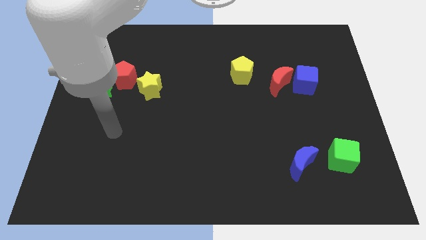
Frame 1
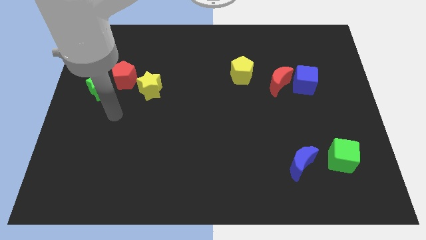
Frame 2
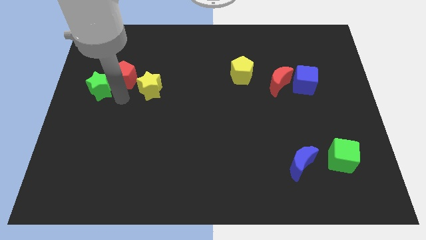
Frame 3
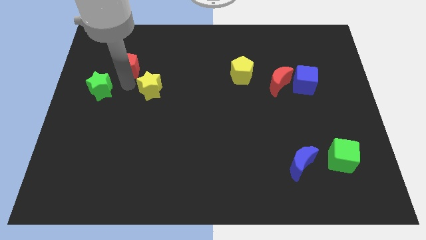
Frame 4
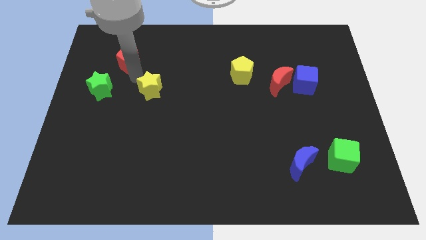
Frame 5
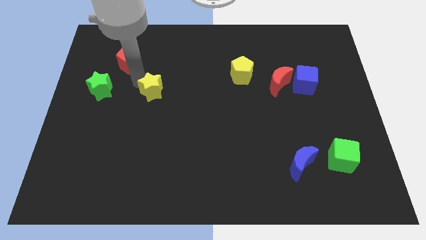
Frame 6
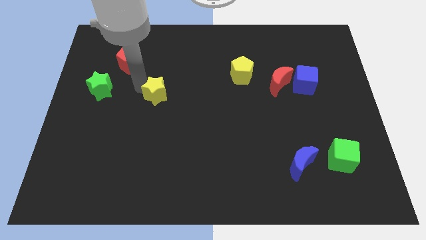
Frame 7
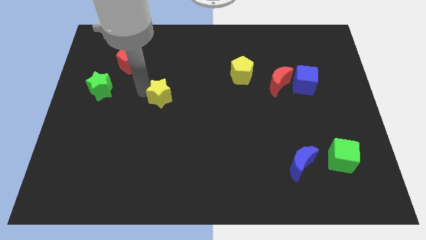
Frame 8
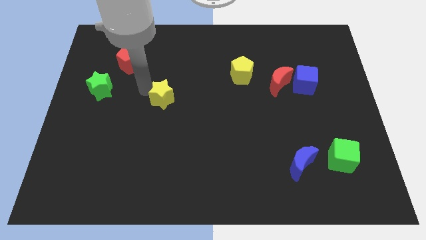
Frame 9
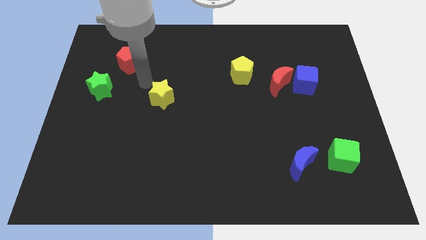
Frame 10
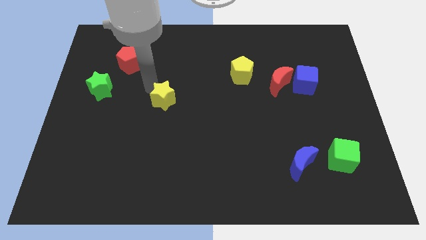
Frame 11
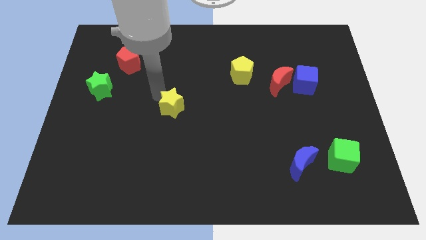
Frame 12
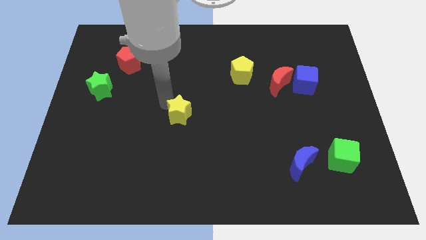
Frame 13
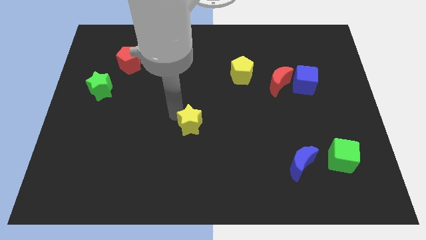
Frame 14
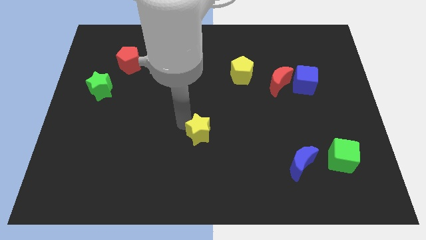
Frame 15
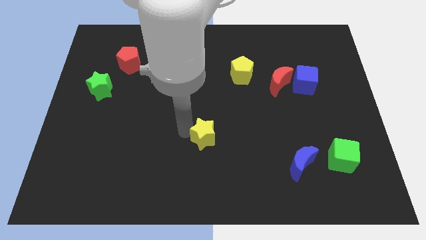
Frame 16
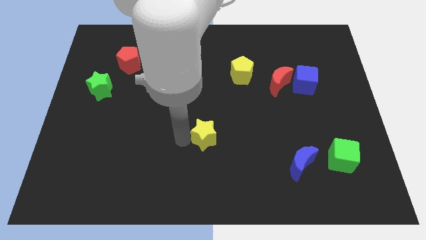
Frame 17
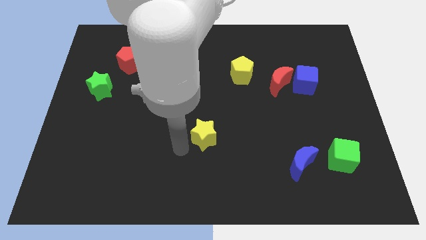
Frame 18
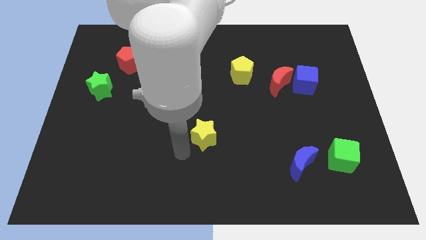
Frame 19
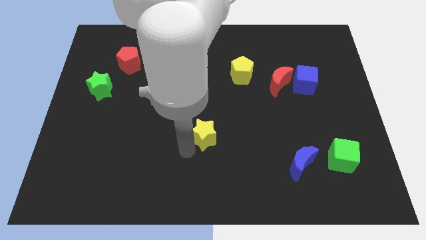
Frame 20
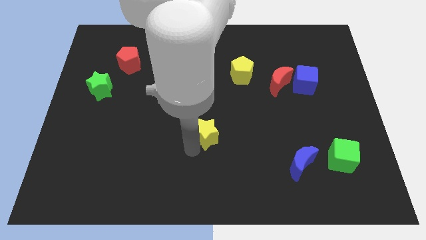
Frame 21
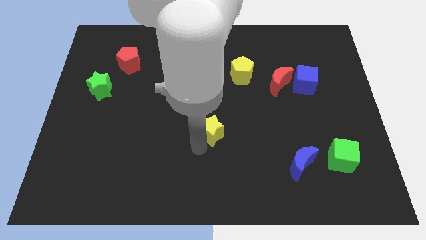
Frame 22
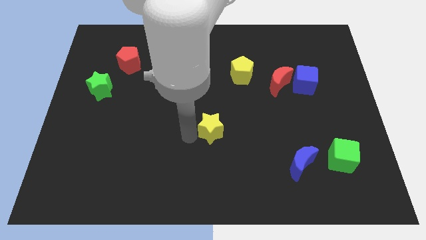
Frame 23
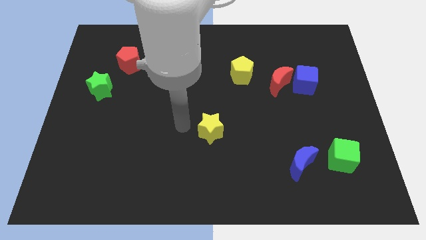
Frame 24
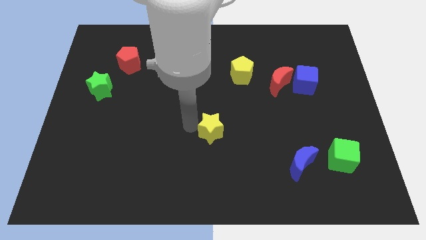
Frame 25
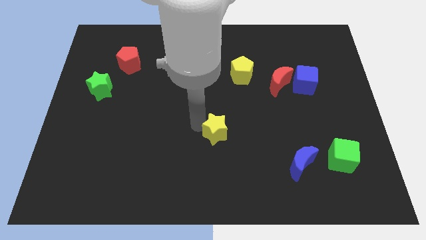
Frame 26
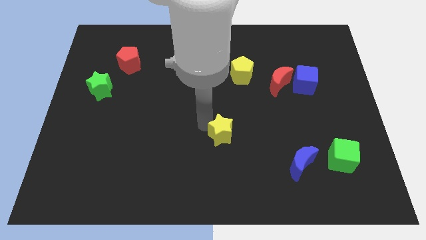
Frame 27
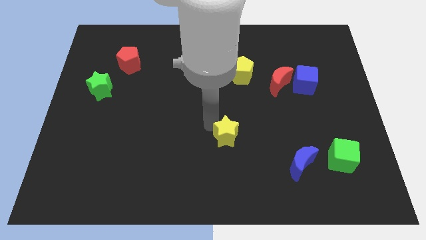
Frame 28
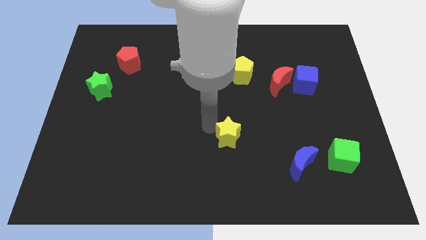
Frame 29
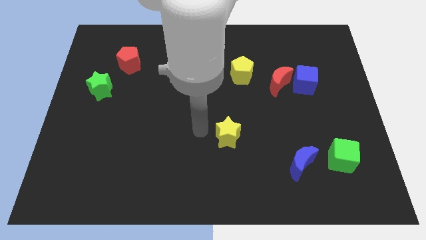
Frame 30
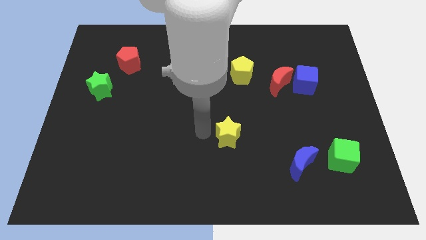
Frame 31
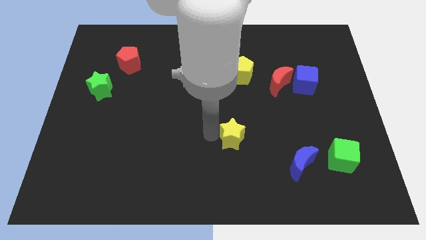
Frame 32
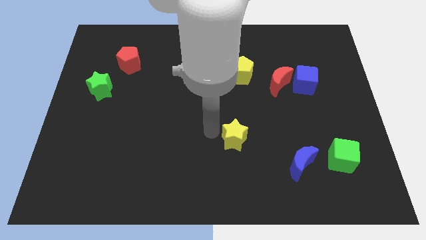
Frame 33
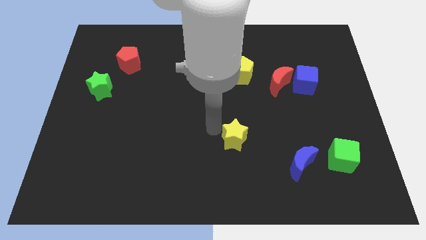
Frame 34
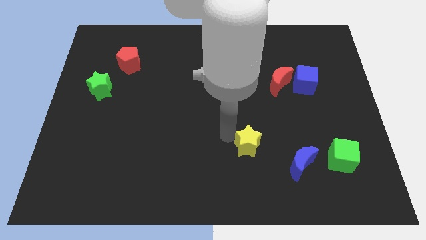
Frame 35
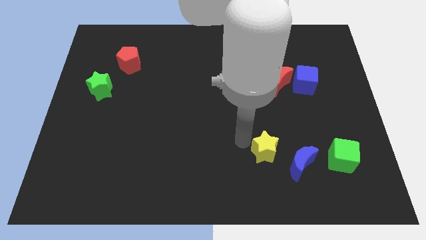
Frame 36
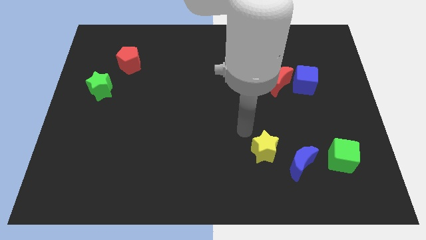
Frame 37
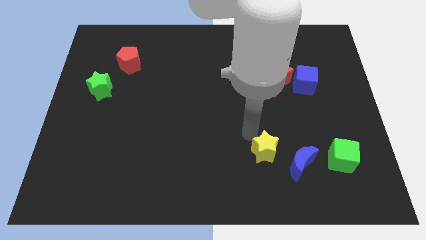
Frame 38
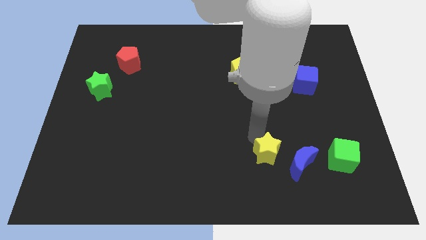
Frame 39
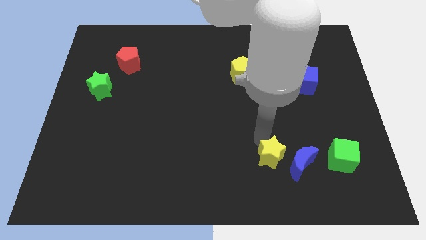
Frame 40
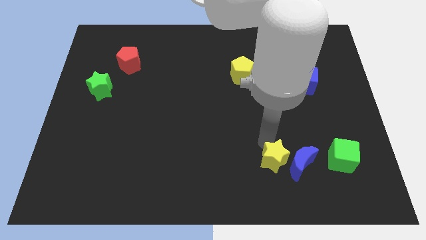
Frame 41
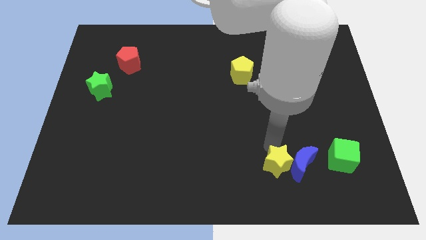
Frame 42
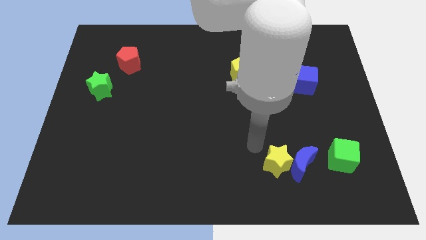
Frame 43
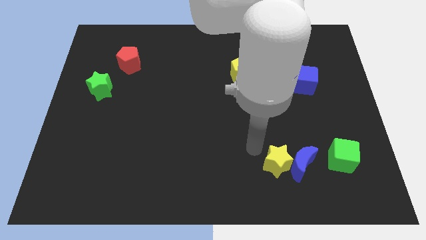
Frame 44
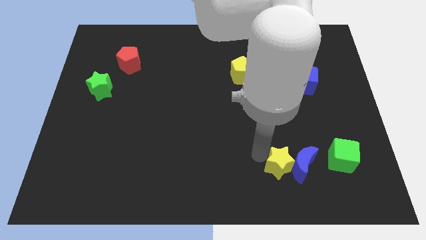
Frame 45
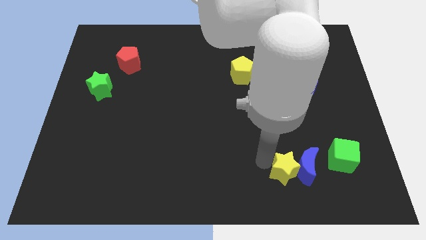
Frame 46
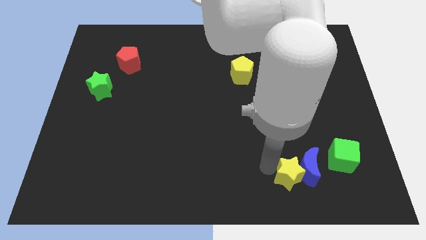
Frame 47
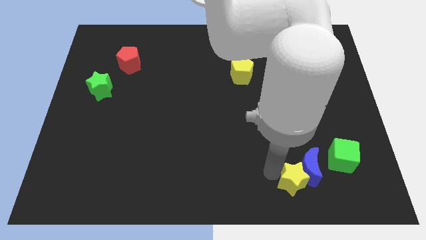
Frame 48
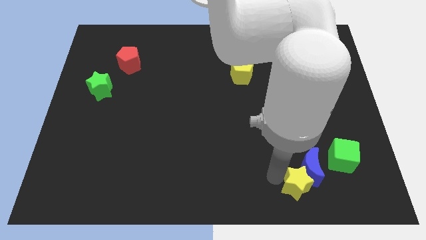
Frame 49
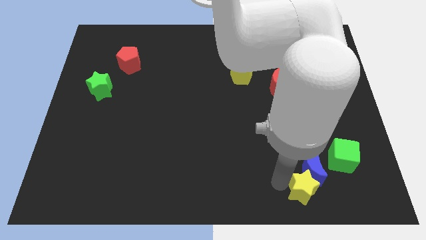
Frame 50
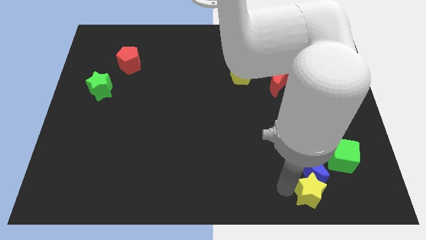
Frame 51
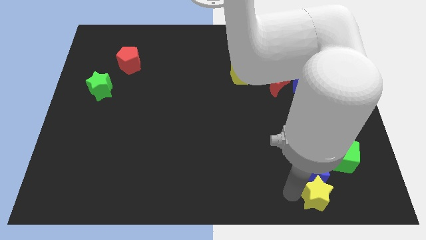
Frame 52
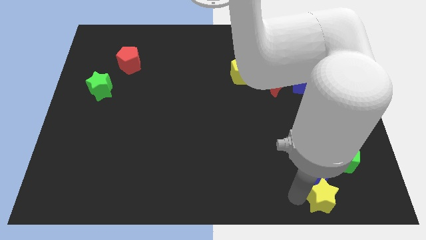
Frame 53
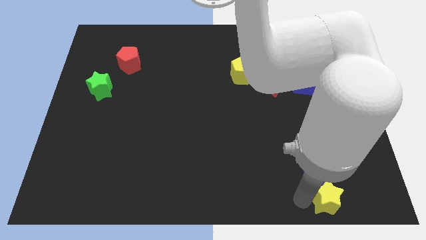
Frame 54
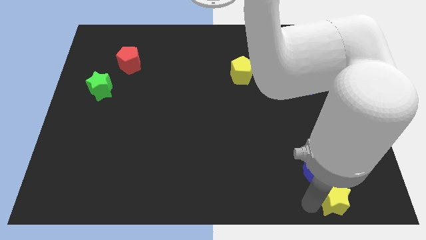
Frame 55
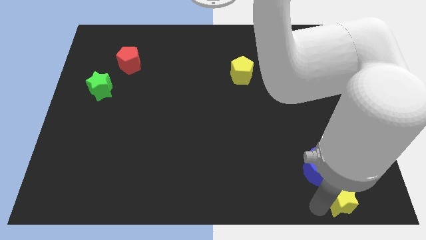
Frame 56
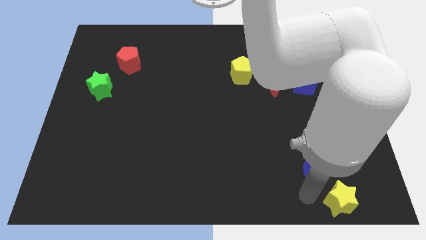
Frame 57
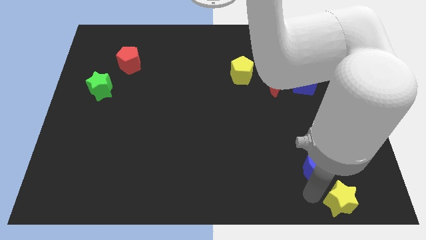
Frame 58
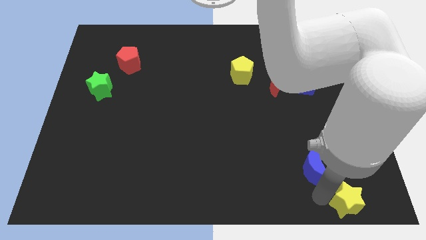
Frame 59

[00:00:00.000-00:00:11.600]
push the yellow star to the bottom right corner

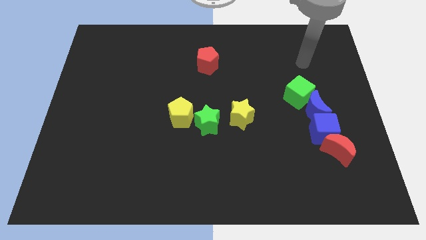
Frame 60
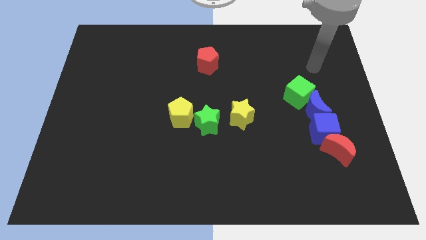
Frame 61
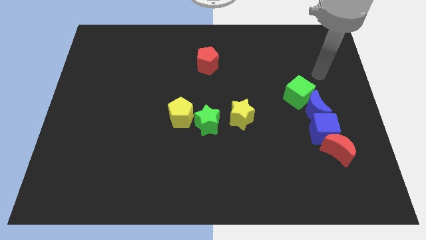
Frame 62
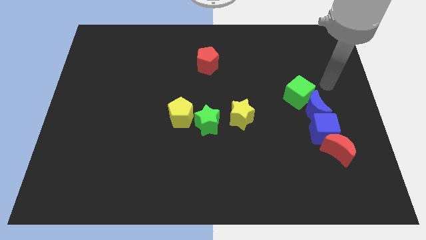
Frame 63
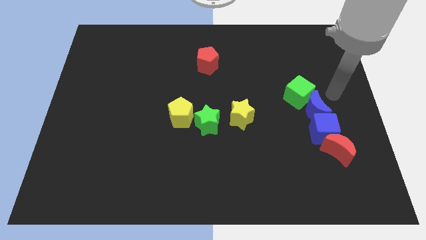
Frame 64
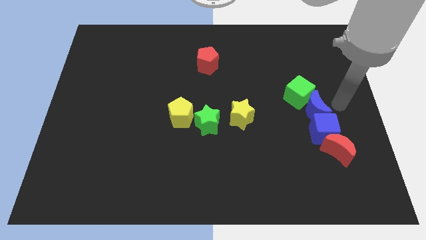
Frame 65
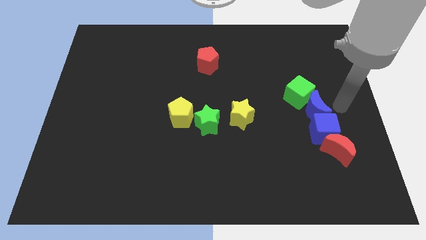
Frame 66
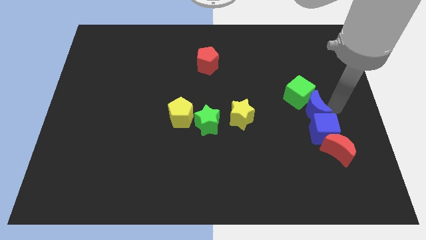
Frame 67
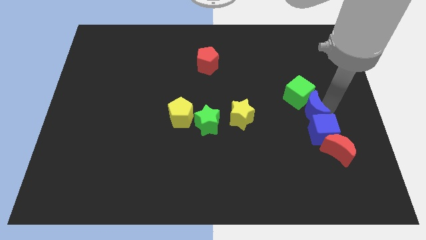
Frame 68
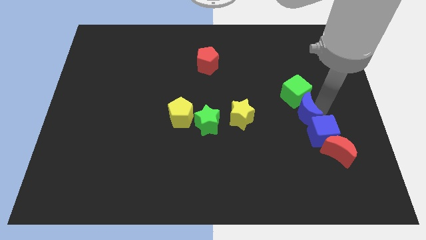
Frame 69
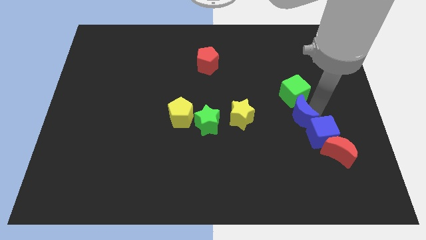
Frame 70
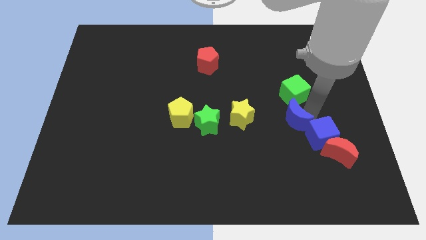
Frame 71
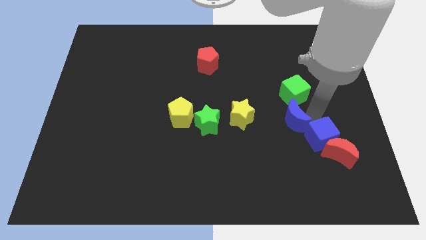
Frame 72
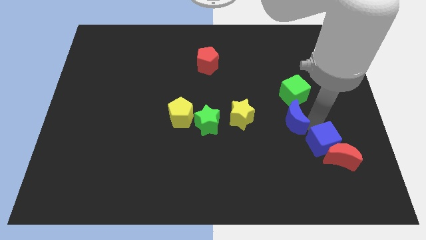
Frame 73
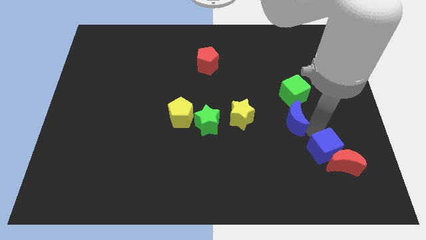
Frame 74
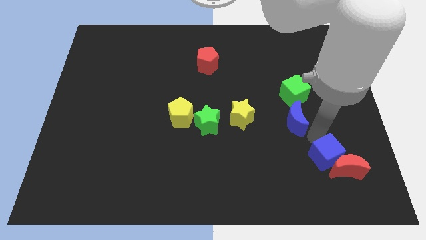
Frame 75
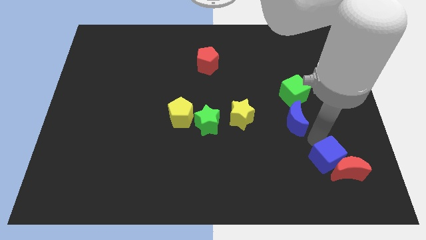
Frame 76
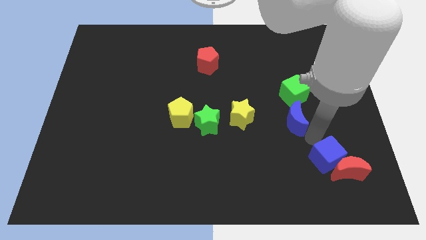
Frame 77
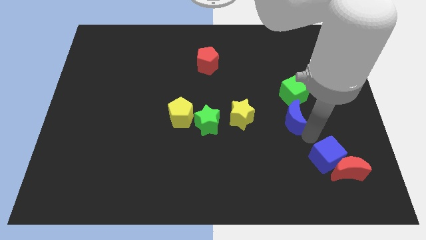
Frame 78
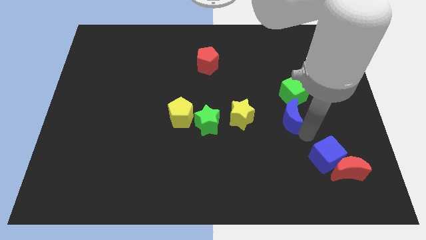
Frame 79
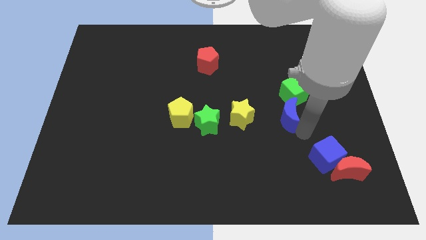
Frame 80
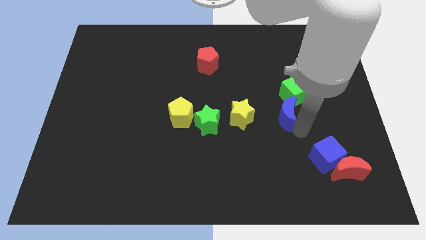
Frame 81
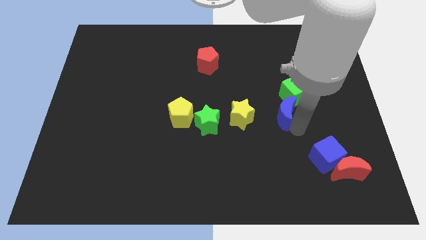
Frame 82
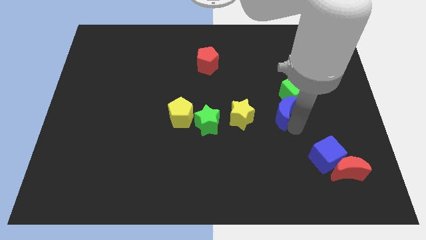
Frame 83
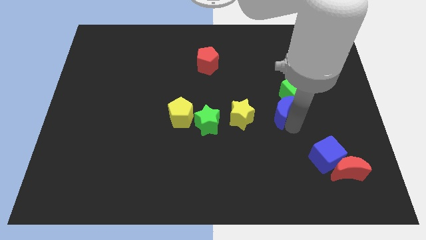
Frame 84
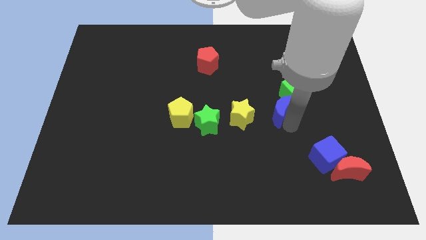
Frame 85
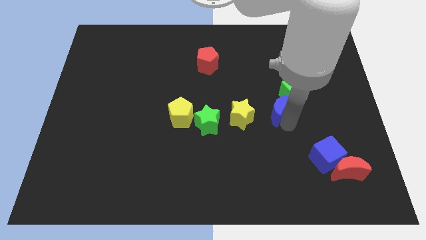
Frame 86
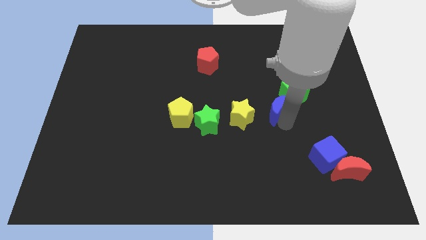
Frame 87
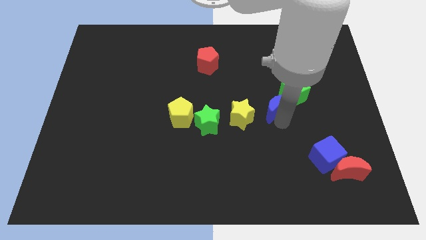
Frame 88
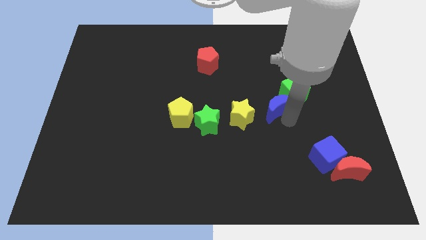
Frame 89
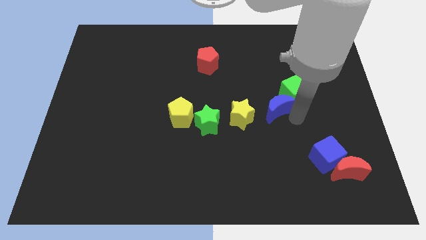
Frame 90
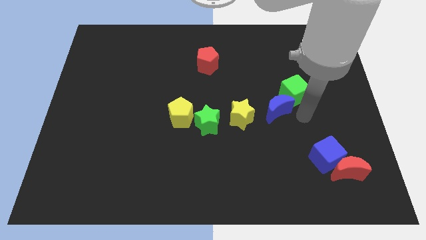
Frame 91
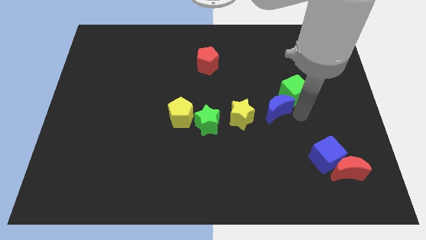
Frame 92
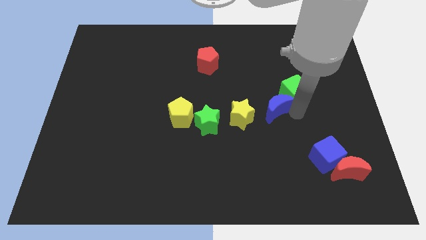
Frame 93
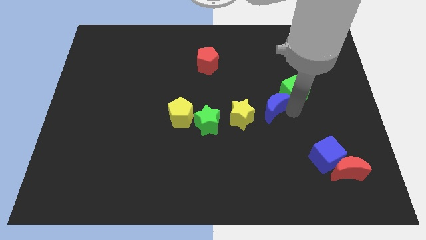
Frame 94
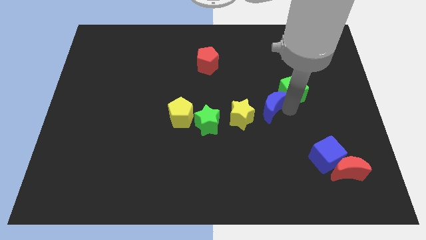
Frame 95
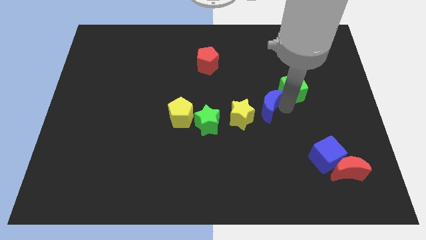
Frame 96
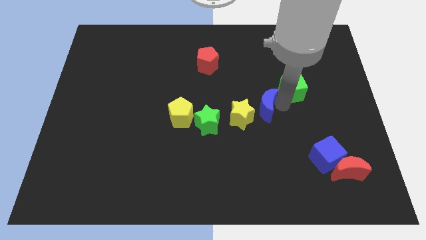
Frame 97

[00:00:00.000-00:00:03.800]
put the blue moon to the center of the board
